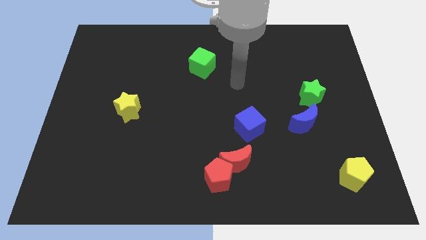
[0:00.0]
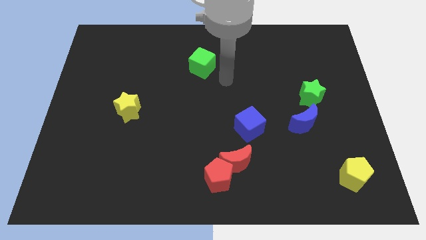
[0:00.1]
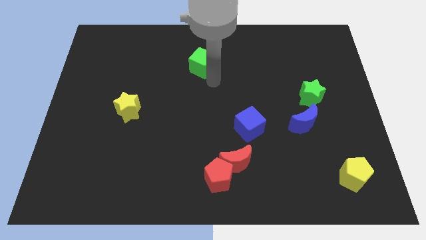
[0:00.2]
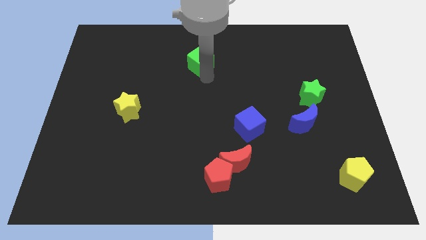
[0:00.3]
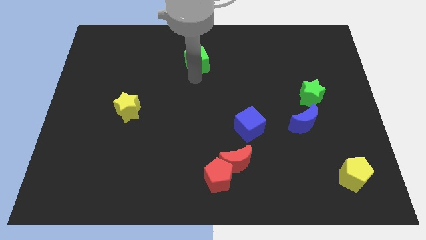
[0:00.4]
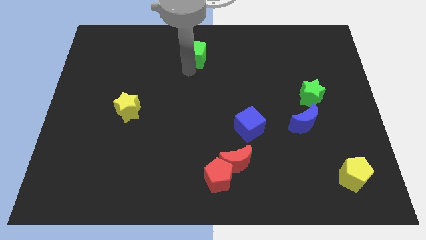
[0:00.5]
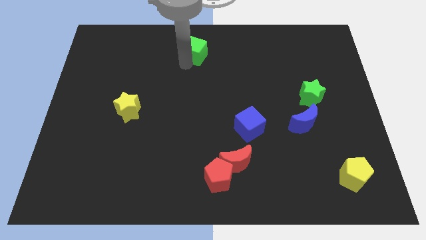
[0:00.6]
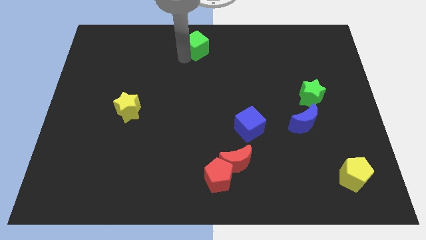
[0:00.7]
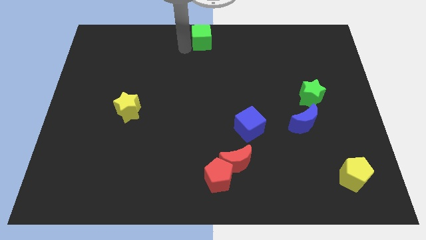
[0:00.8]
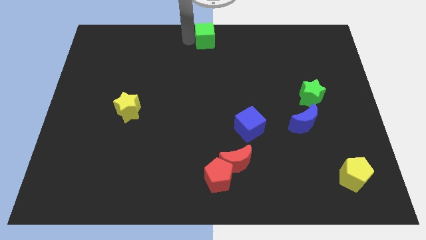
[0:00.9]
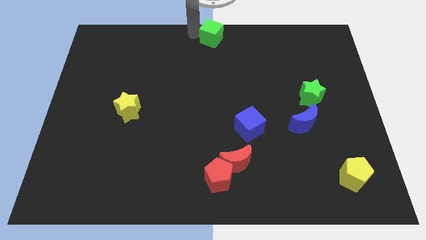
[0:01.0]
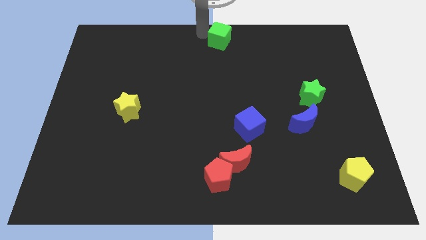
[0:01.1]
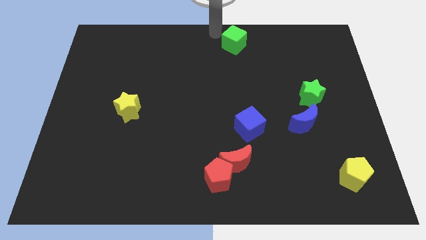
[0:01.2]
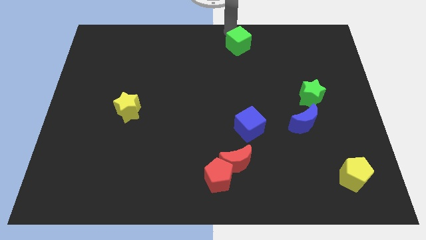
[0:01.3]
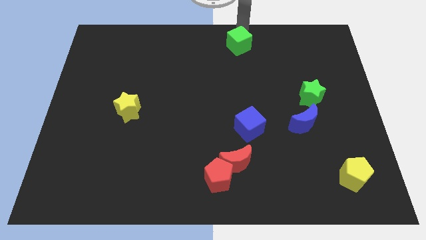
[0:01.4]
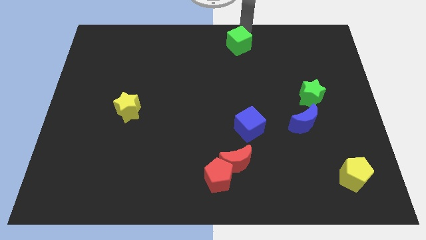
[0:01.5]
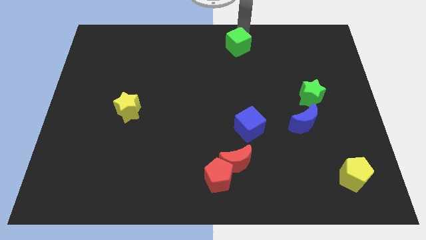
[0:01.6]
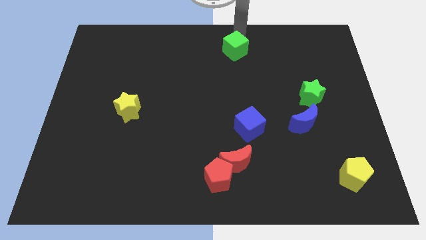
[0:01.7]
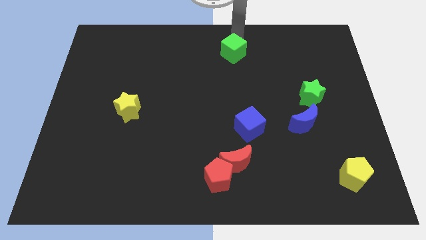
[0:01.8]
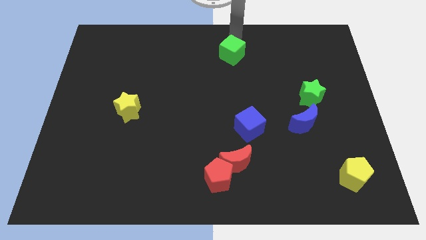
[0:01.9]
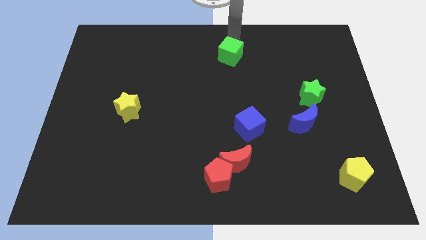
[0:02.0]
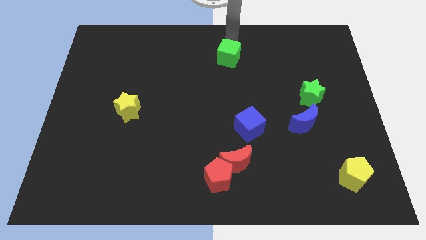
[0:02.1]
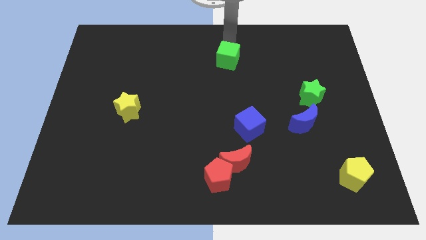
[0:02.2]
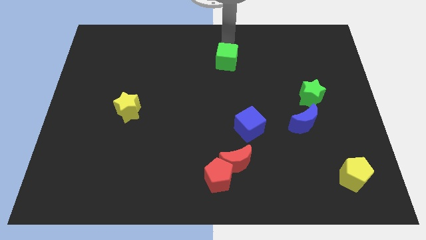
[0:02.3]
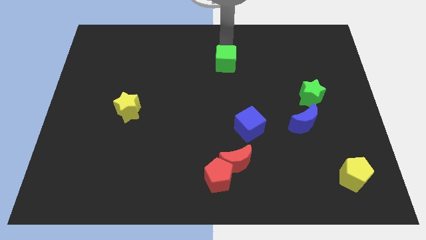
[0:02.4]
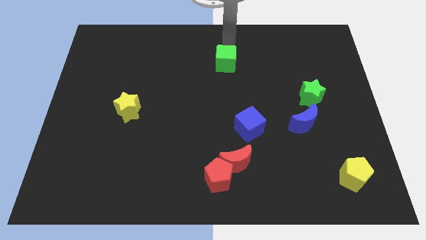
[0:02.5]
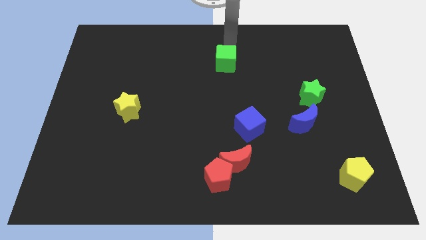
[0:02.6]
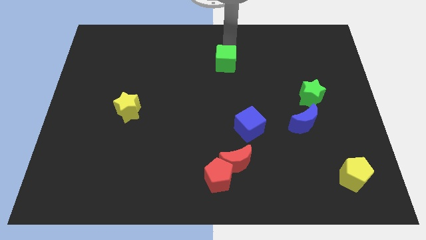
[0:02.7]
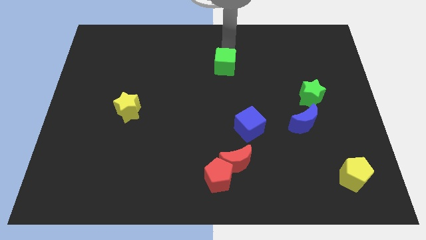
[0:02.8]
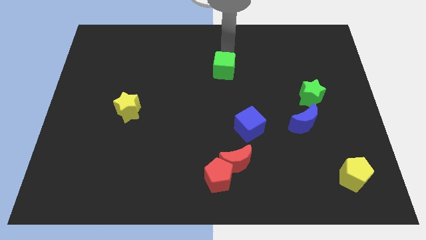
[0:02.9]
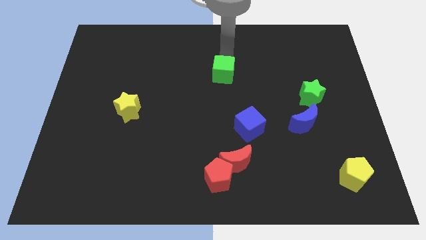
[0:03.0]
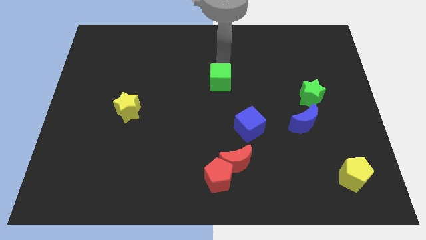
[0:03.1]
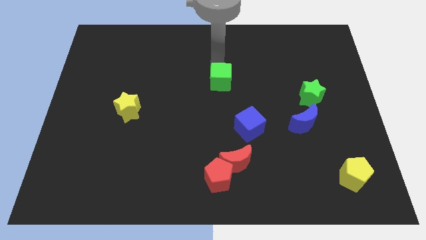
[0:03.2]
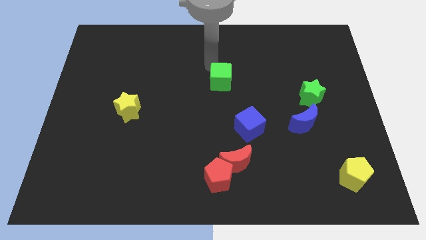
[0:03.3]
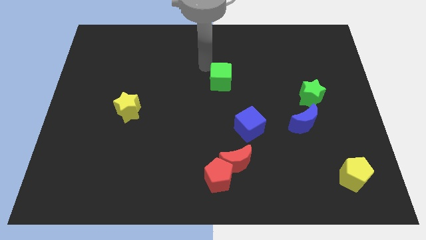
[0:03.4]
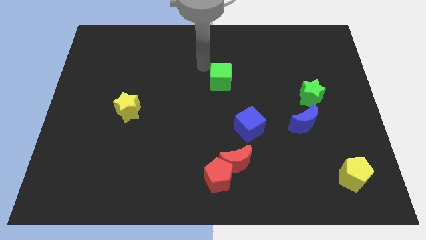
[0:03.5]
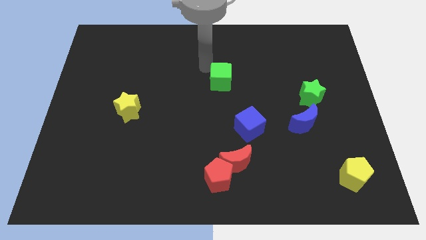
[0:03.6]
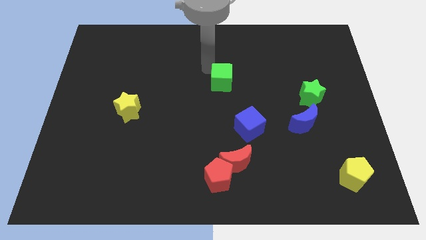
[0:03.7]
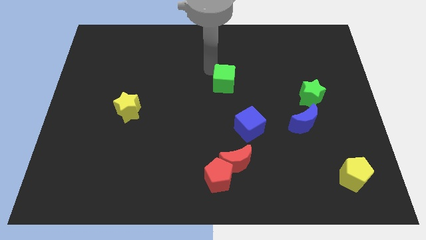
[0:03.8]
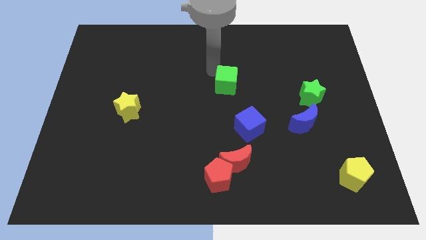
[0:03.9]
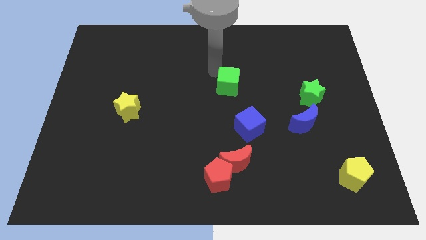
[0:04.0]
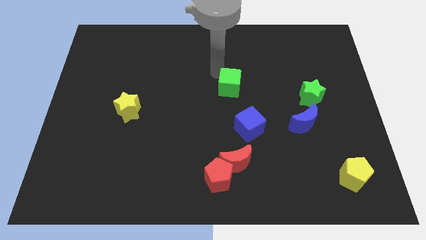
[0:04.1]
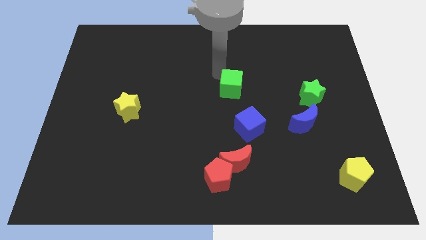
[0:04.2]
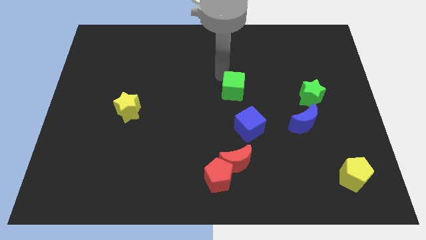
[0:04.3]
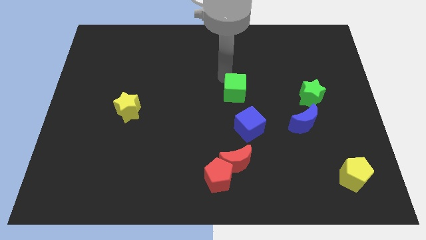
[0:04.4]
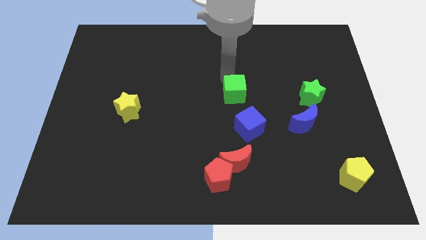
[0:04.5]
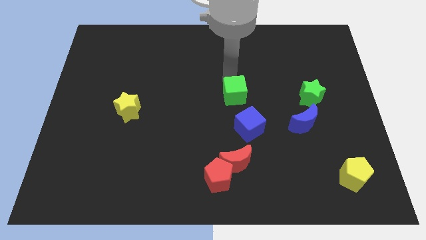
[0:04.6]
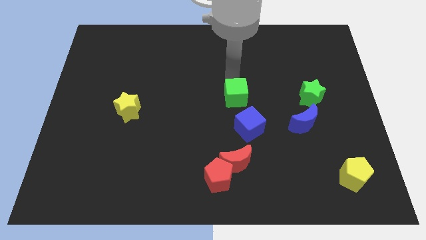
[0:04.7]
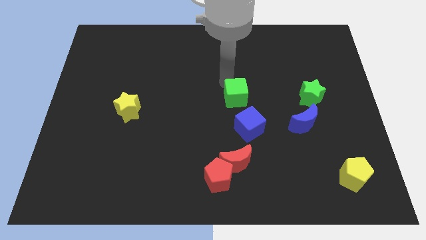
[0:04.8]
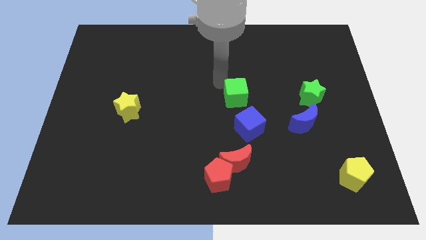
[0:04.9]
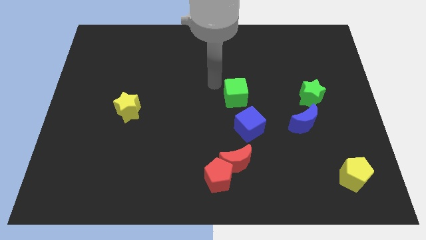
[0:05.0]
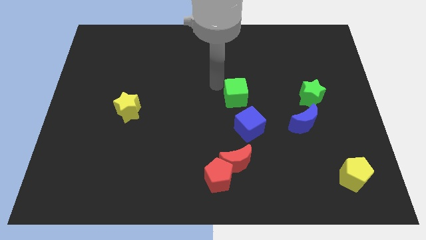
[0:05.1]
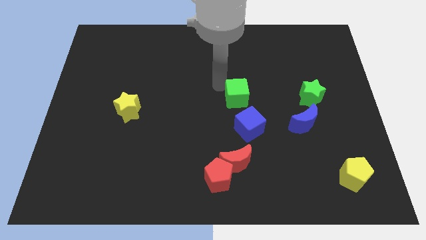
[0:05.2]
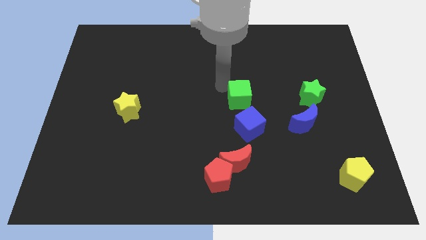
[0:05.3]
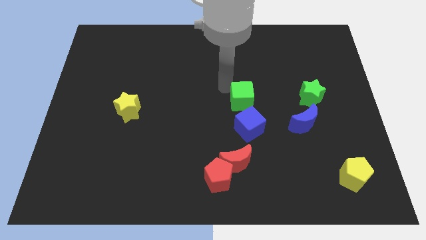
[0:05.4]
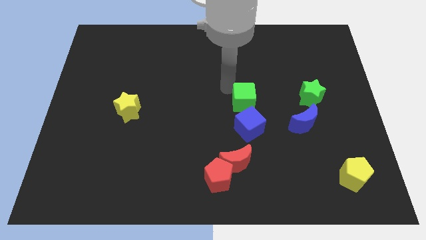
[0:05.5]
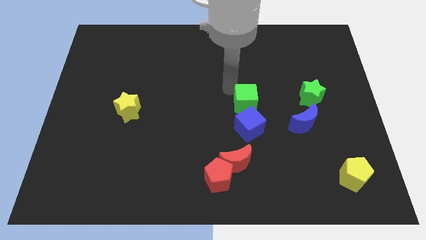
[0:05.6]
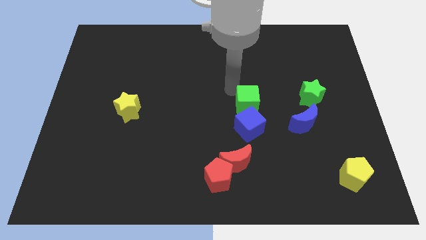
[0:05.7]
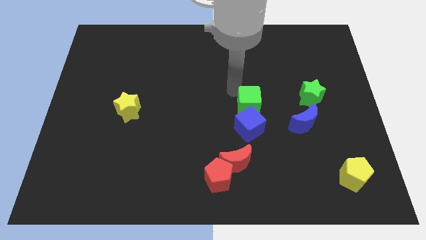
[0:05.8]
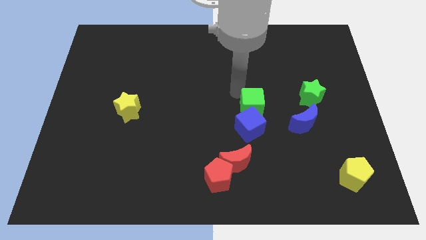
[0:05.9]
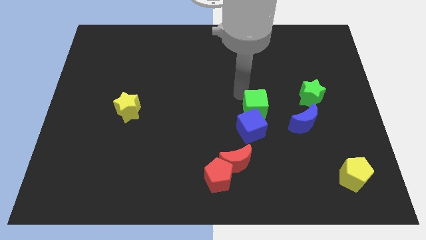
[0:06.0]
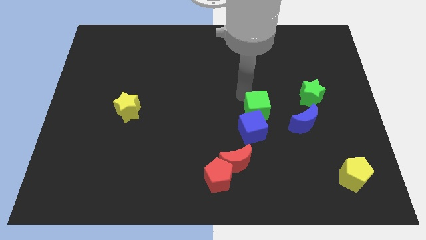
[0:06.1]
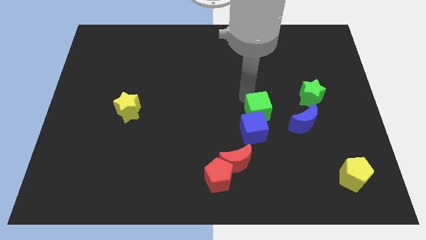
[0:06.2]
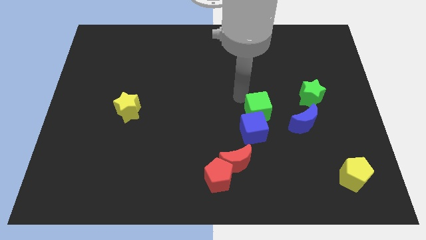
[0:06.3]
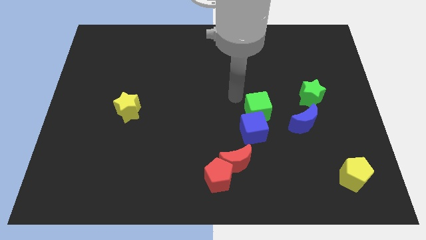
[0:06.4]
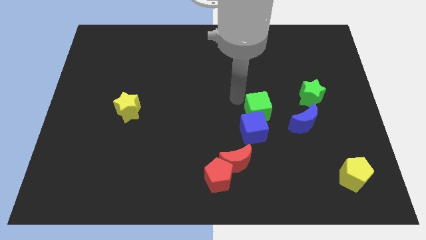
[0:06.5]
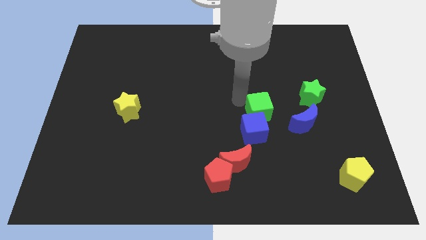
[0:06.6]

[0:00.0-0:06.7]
slide the green cube down and then to the right

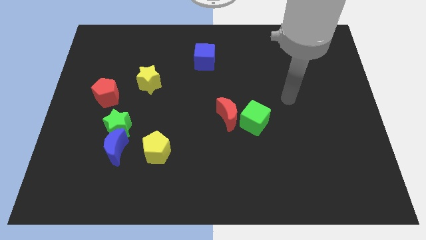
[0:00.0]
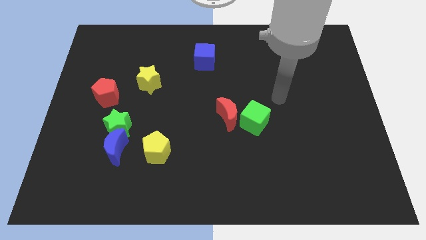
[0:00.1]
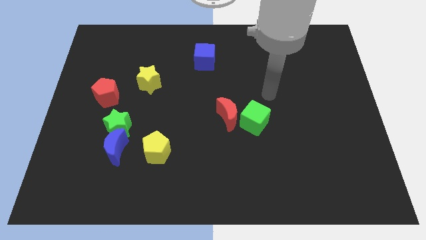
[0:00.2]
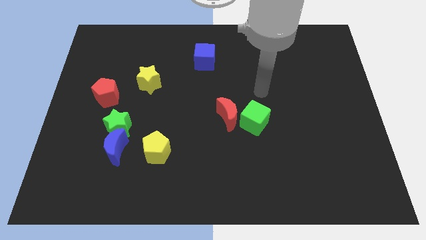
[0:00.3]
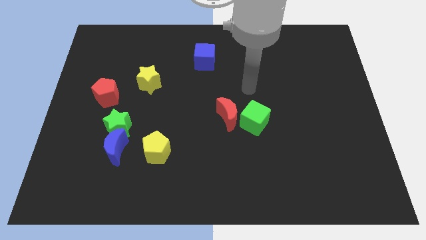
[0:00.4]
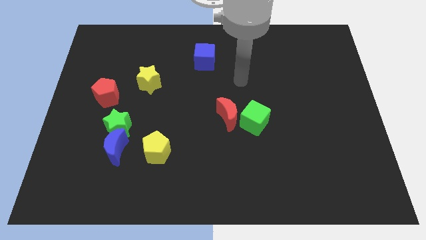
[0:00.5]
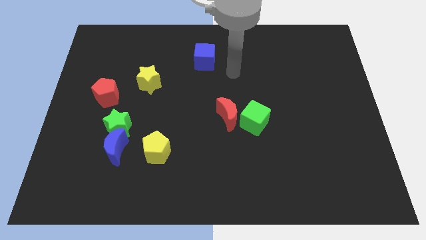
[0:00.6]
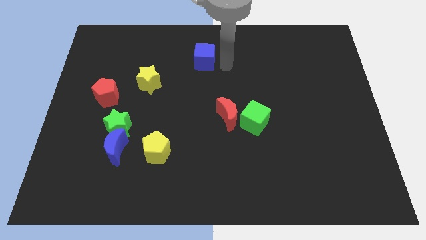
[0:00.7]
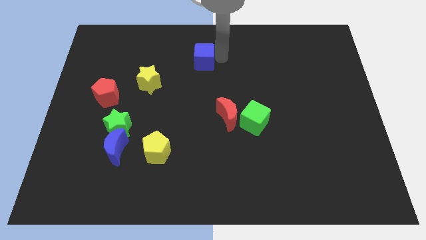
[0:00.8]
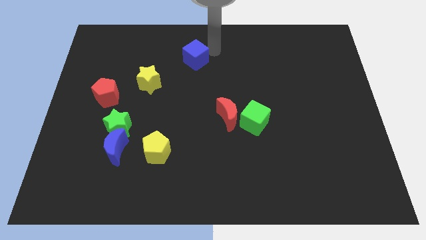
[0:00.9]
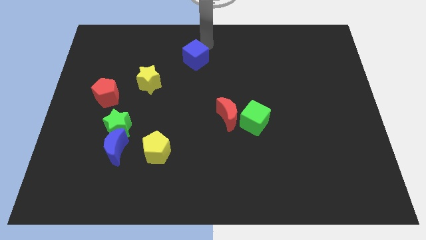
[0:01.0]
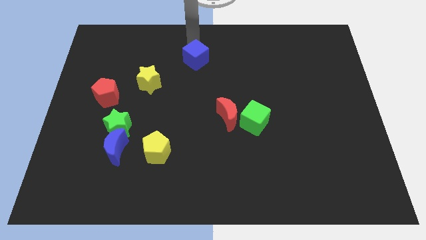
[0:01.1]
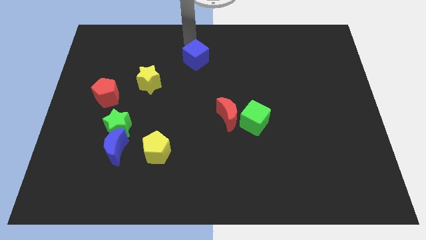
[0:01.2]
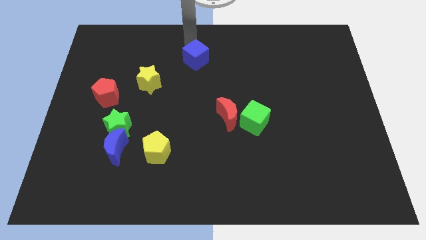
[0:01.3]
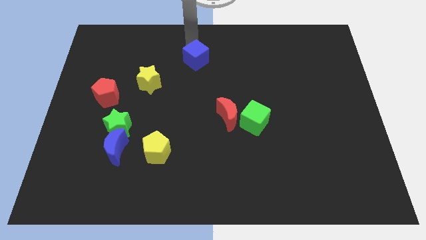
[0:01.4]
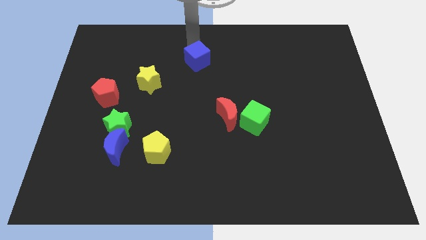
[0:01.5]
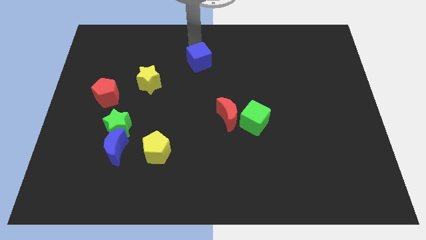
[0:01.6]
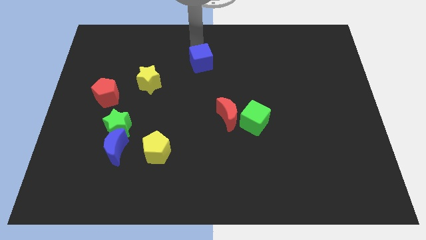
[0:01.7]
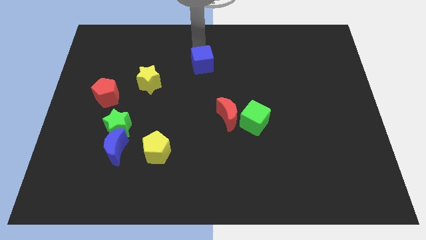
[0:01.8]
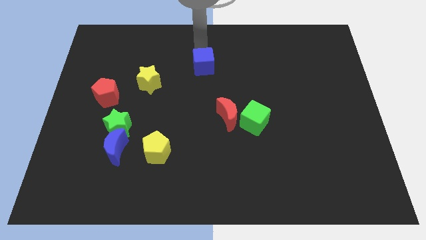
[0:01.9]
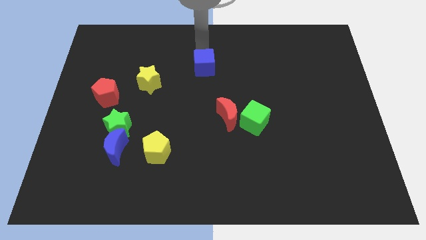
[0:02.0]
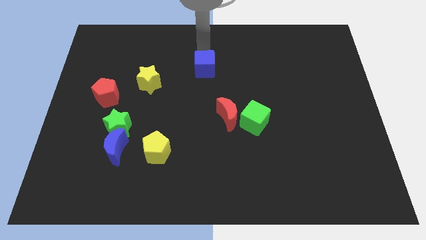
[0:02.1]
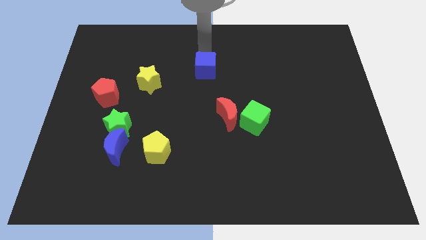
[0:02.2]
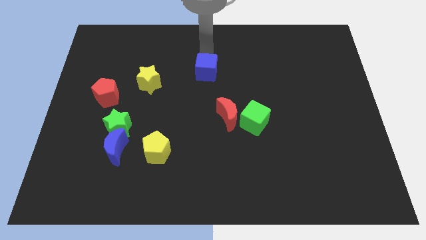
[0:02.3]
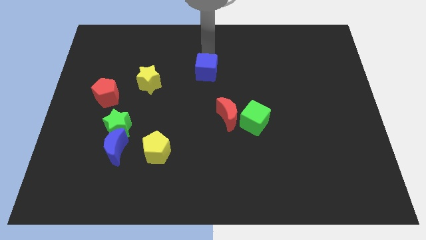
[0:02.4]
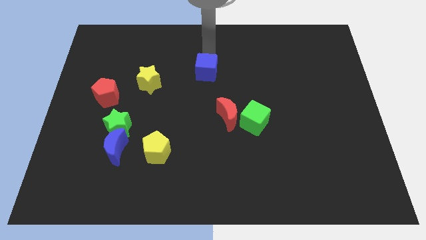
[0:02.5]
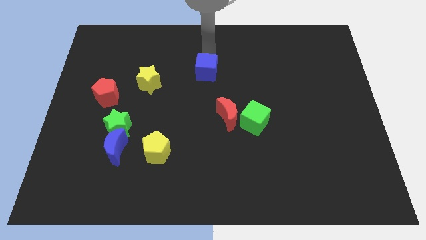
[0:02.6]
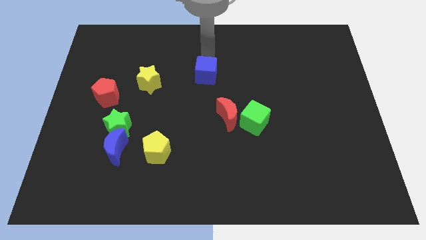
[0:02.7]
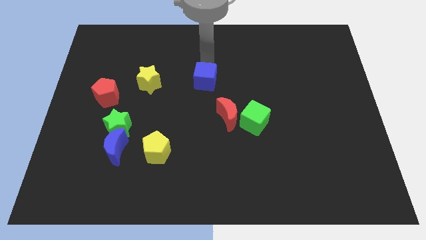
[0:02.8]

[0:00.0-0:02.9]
move the blue cube a bit downwards
